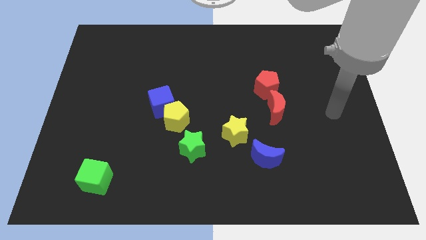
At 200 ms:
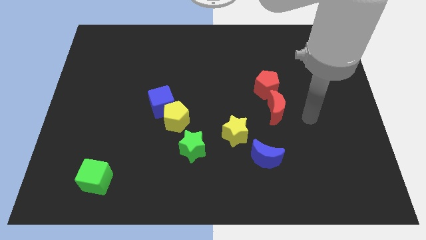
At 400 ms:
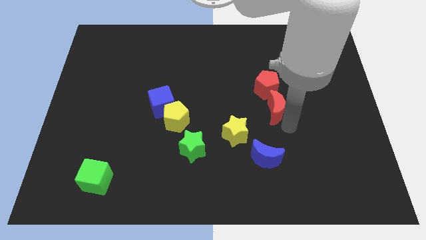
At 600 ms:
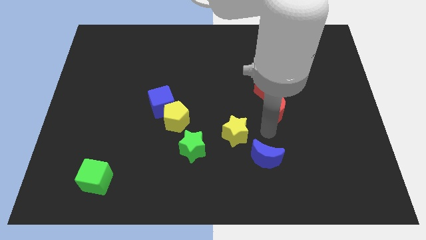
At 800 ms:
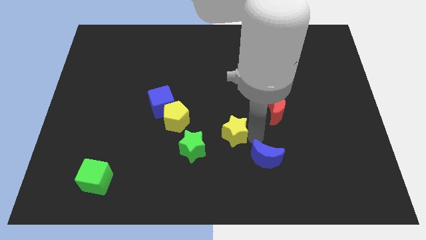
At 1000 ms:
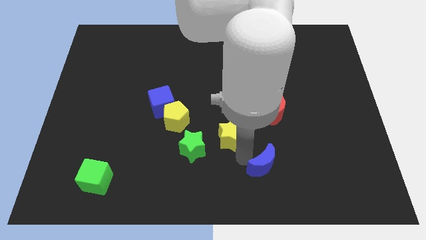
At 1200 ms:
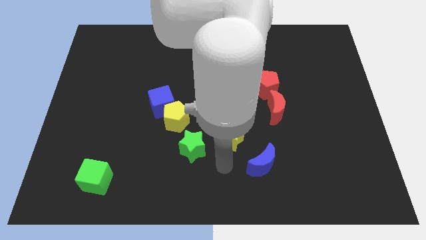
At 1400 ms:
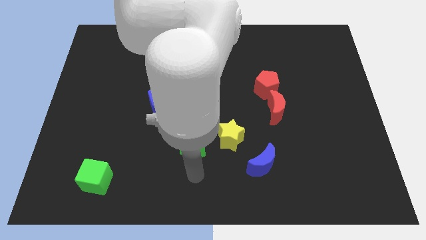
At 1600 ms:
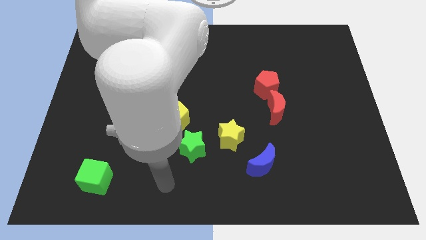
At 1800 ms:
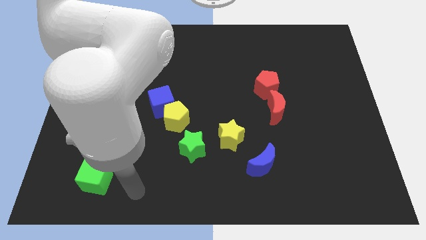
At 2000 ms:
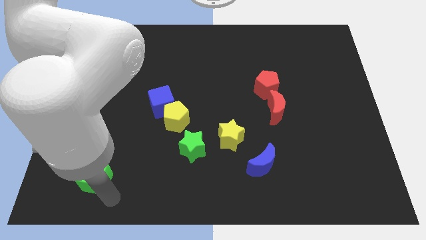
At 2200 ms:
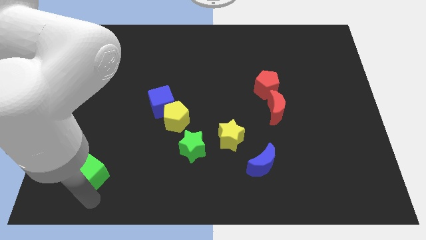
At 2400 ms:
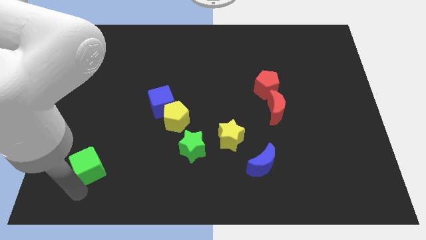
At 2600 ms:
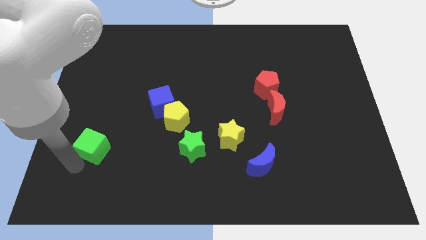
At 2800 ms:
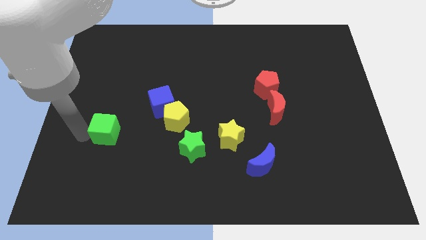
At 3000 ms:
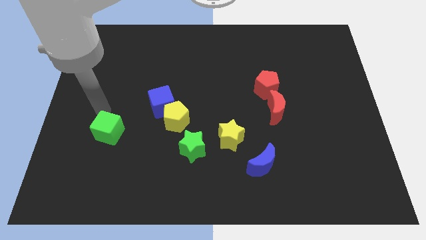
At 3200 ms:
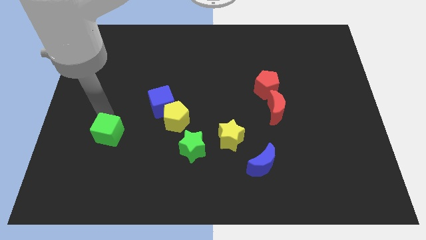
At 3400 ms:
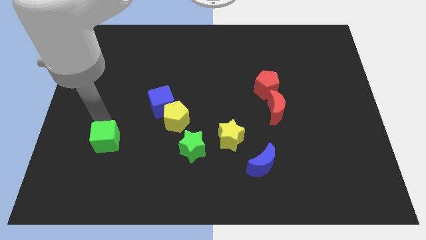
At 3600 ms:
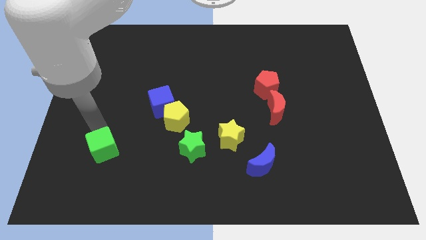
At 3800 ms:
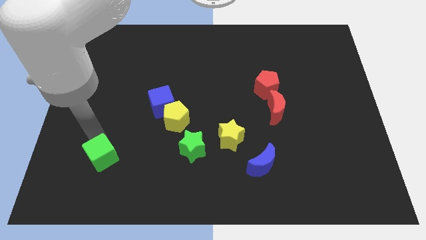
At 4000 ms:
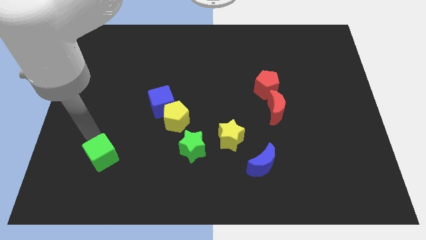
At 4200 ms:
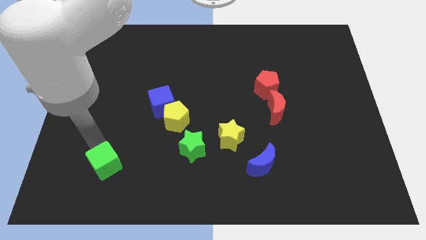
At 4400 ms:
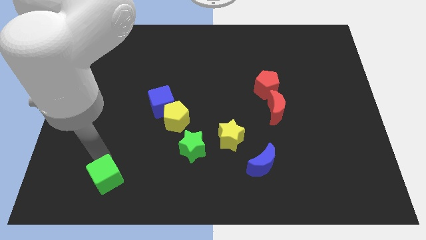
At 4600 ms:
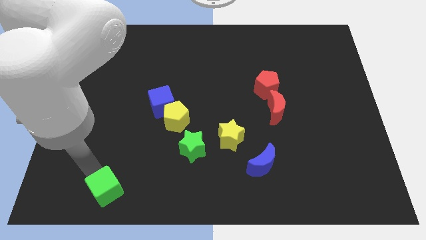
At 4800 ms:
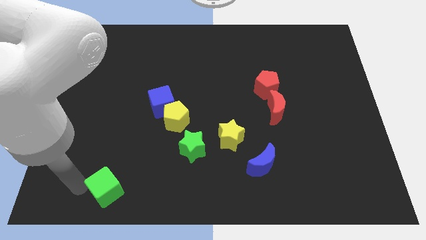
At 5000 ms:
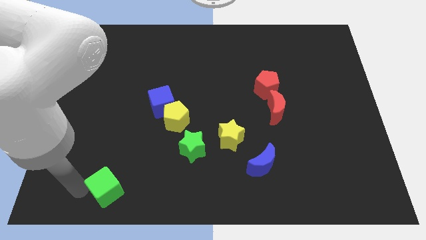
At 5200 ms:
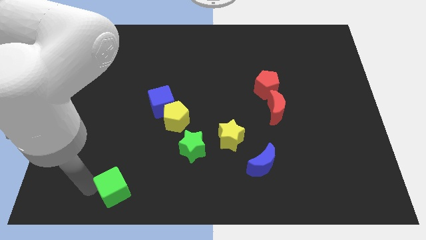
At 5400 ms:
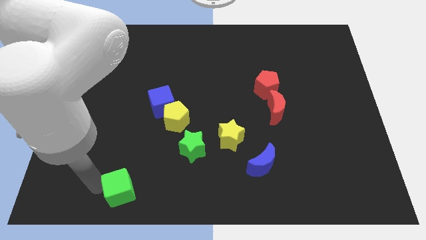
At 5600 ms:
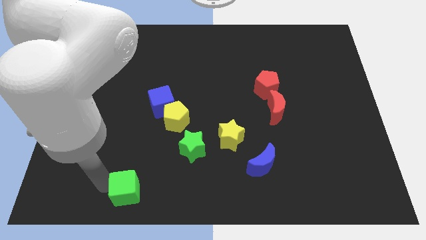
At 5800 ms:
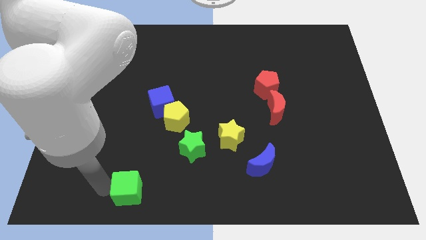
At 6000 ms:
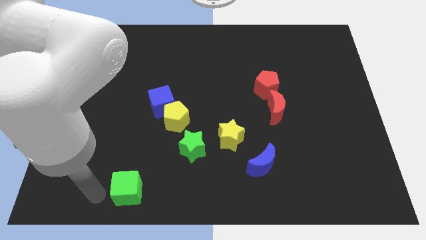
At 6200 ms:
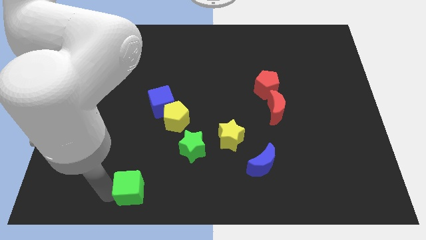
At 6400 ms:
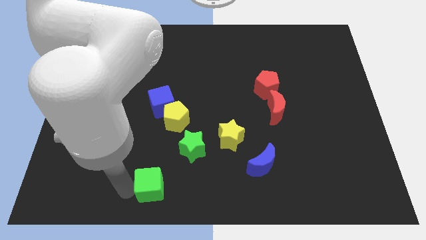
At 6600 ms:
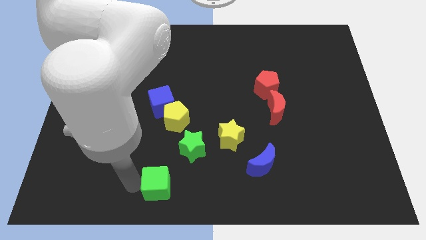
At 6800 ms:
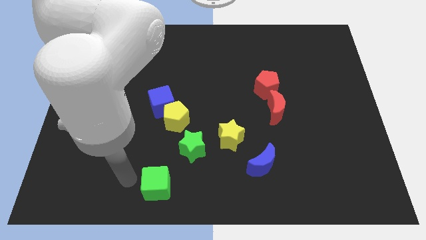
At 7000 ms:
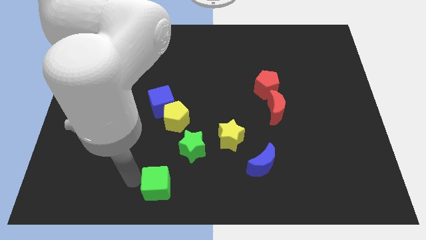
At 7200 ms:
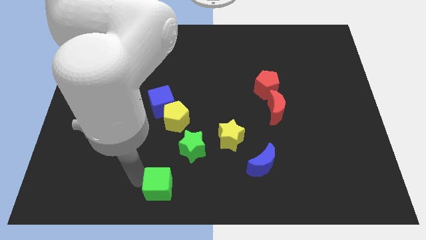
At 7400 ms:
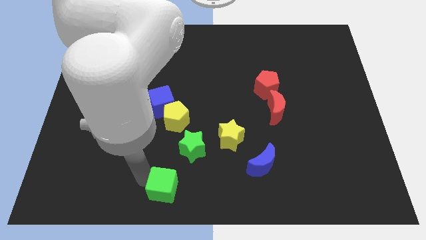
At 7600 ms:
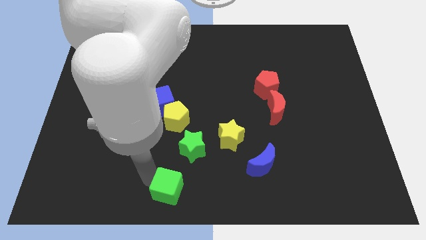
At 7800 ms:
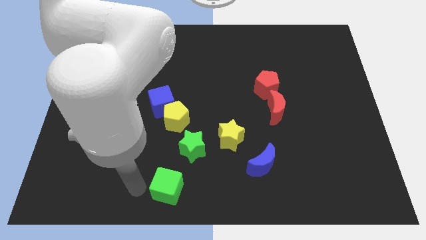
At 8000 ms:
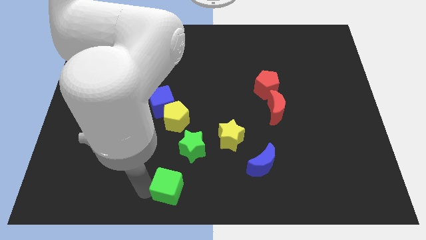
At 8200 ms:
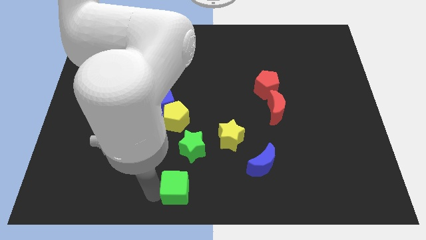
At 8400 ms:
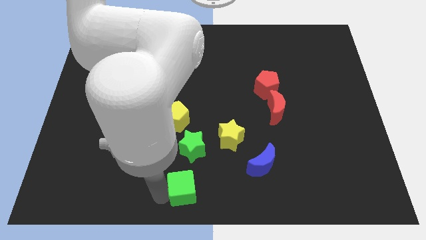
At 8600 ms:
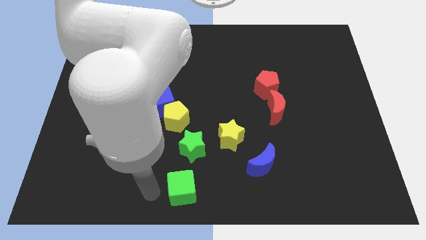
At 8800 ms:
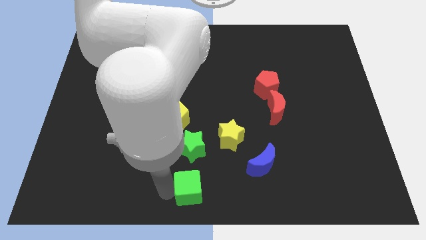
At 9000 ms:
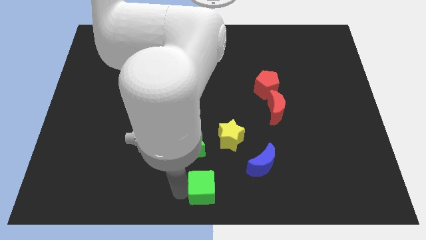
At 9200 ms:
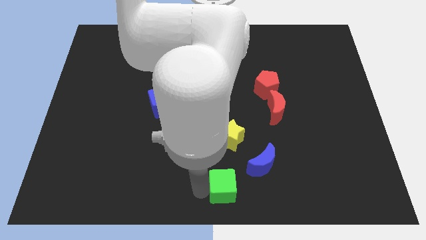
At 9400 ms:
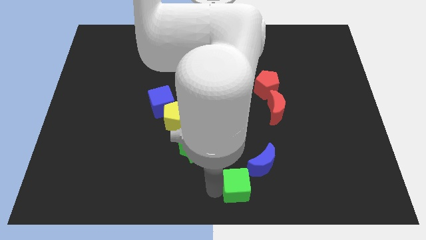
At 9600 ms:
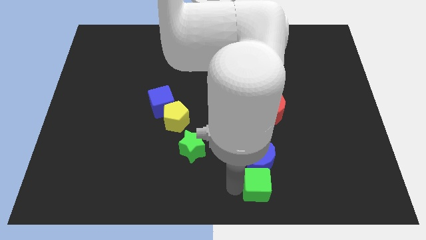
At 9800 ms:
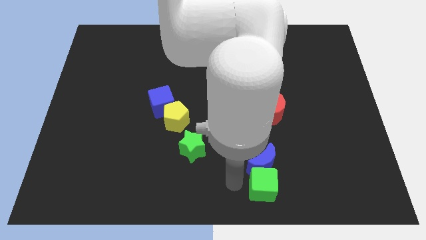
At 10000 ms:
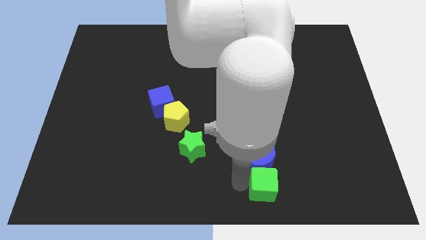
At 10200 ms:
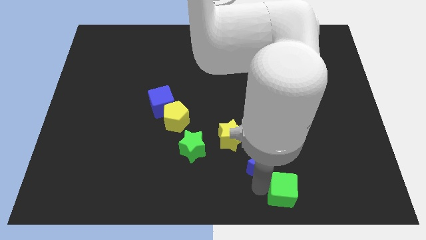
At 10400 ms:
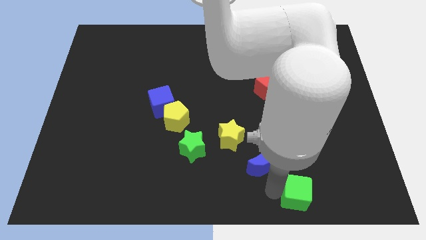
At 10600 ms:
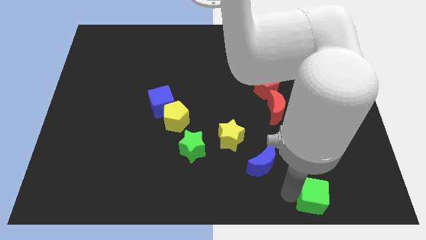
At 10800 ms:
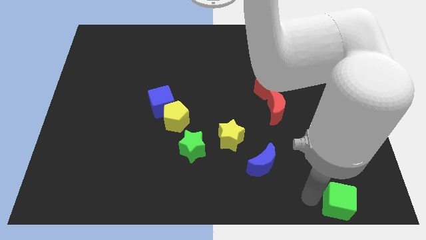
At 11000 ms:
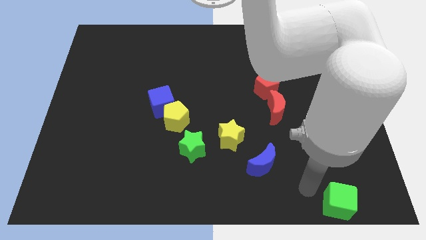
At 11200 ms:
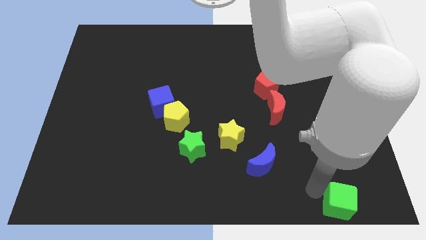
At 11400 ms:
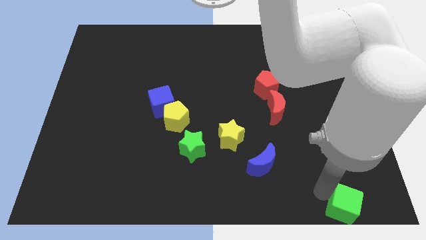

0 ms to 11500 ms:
move the green cube to the lower right corner

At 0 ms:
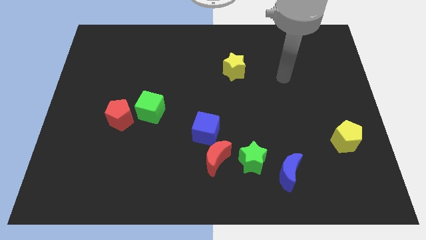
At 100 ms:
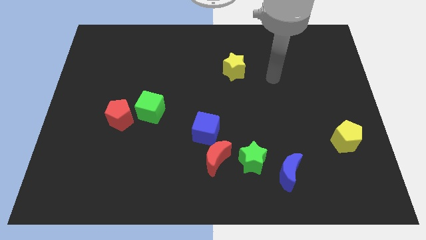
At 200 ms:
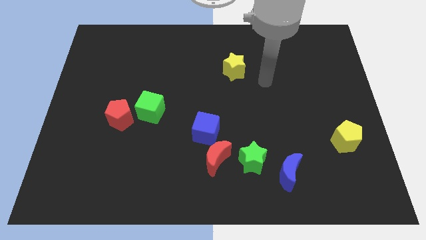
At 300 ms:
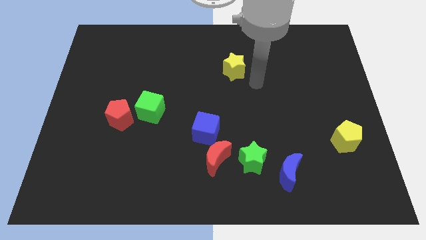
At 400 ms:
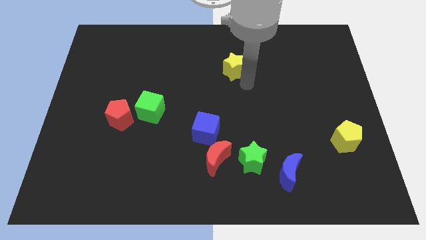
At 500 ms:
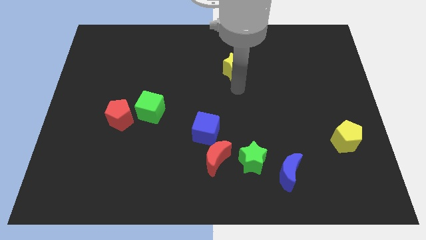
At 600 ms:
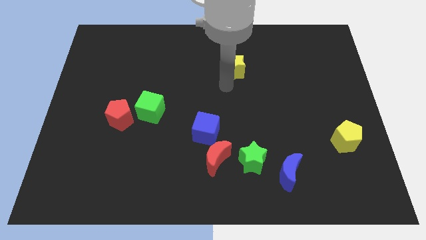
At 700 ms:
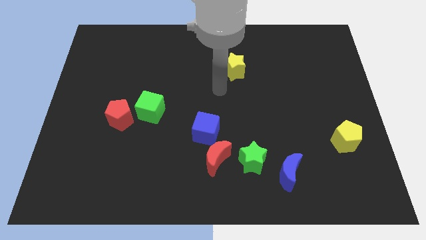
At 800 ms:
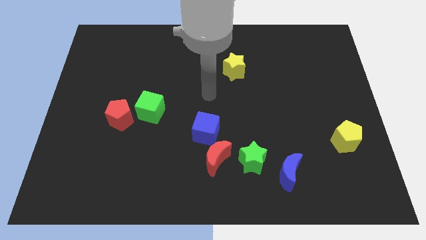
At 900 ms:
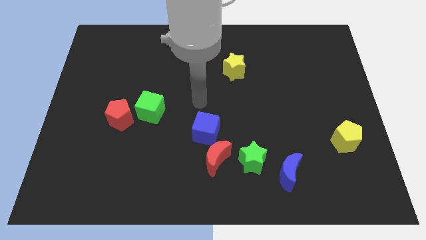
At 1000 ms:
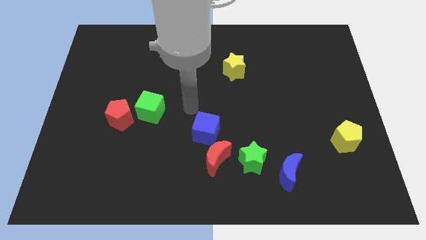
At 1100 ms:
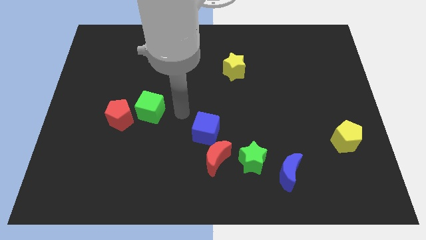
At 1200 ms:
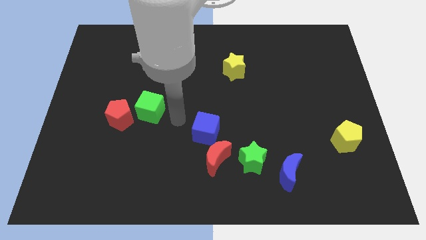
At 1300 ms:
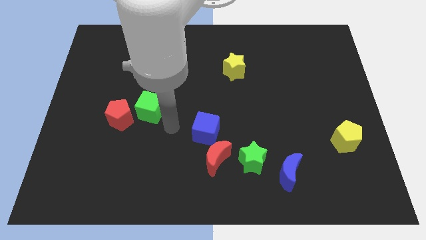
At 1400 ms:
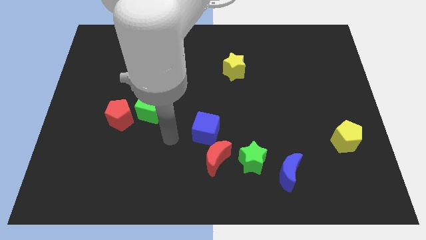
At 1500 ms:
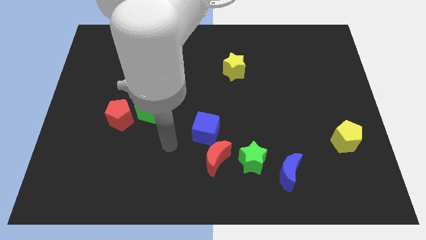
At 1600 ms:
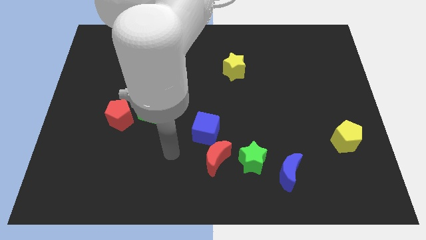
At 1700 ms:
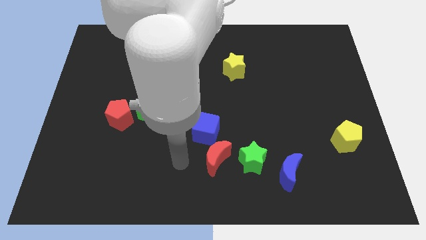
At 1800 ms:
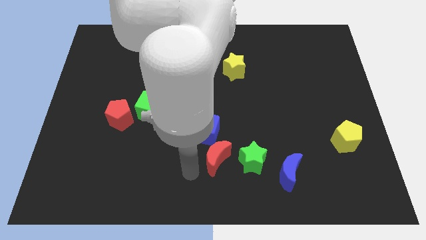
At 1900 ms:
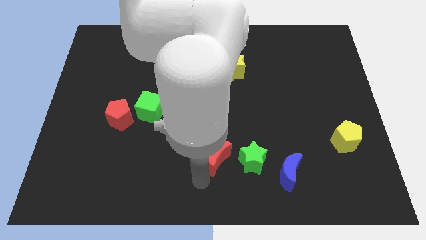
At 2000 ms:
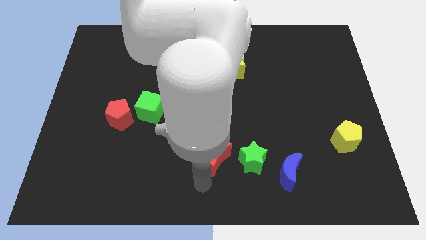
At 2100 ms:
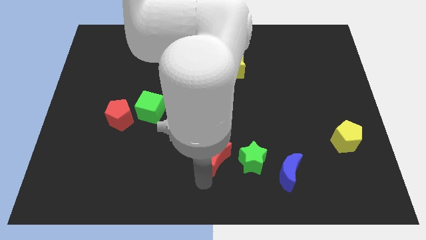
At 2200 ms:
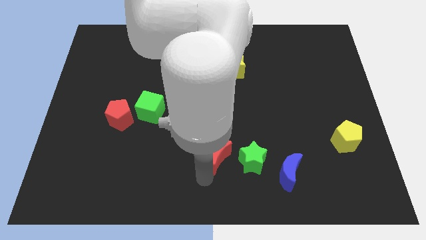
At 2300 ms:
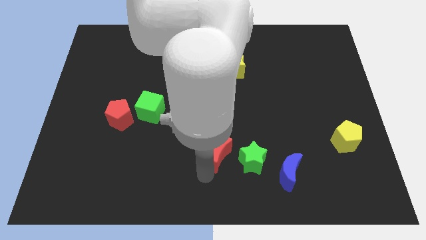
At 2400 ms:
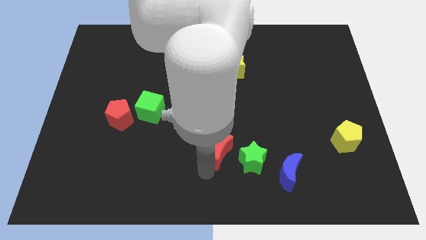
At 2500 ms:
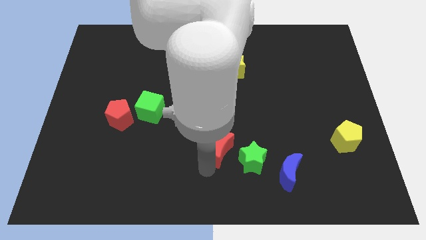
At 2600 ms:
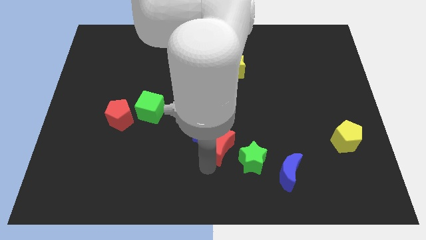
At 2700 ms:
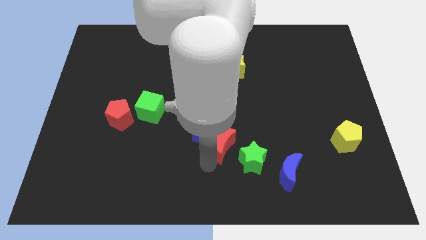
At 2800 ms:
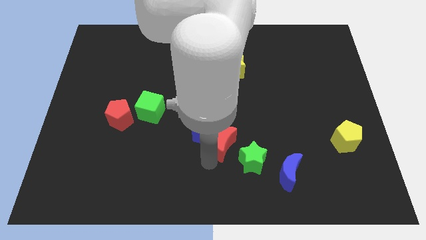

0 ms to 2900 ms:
move the red moon to the center
